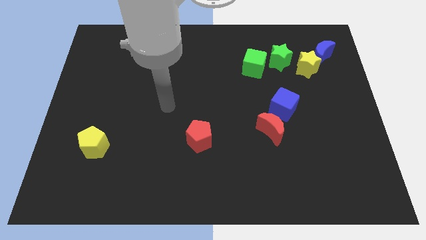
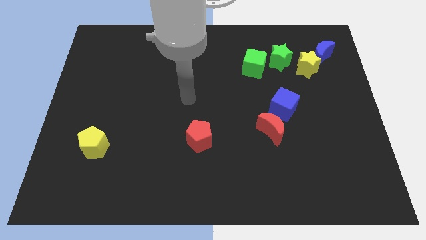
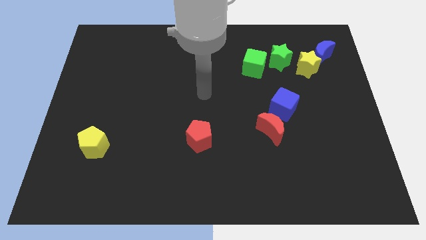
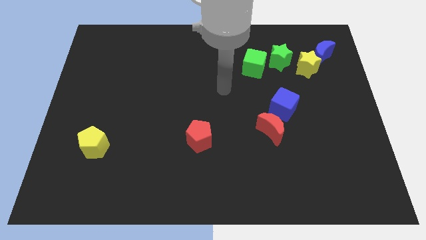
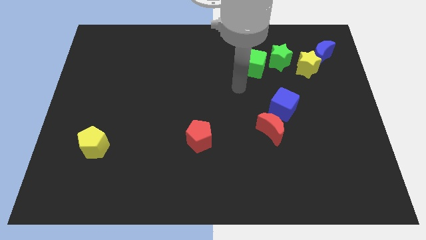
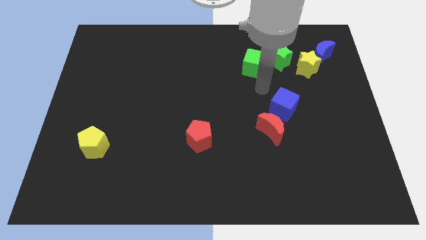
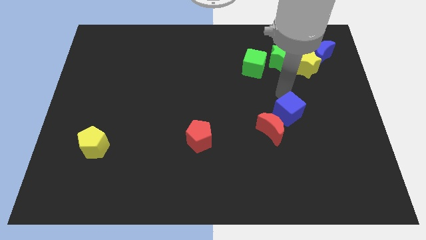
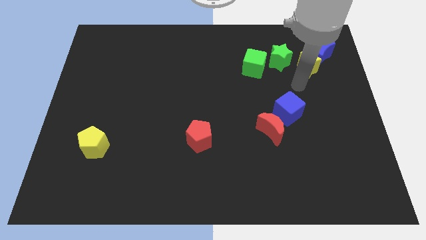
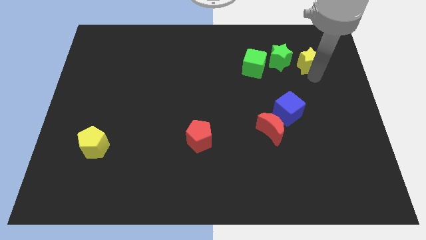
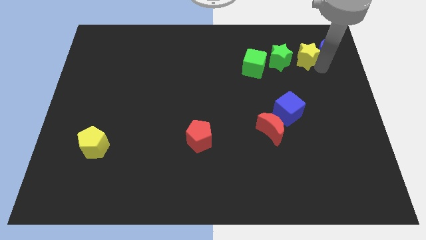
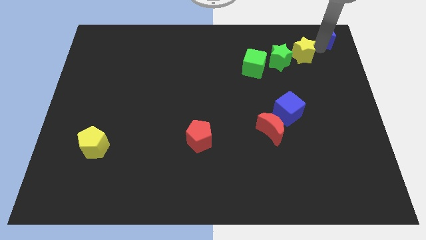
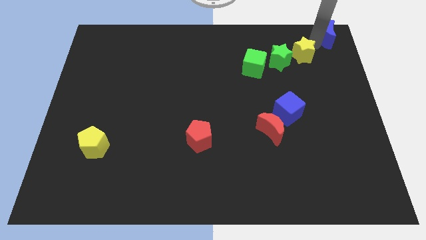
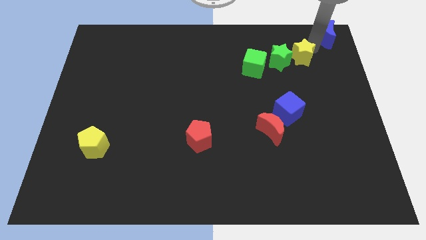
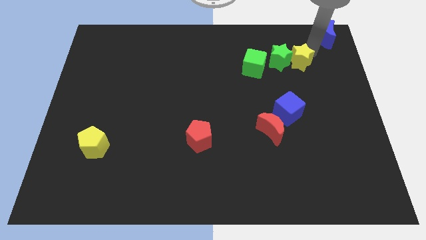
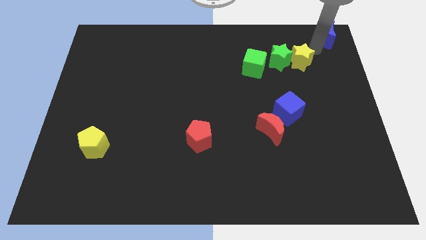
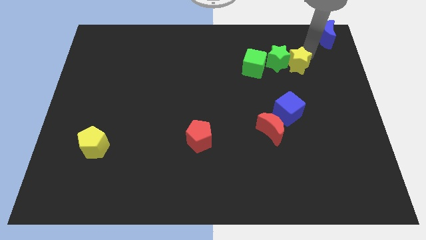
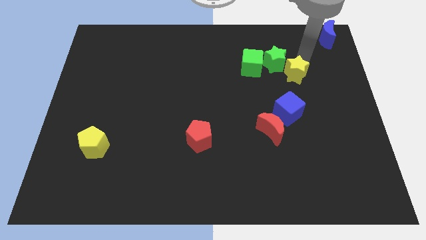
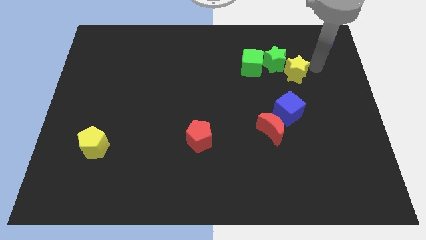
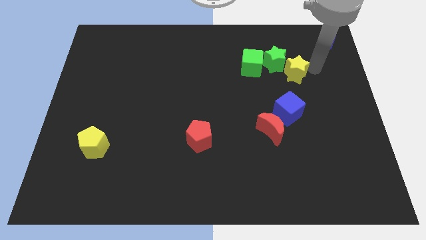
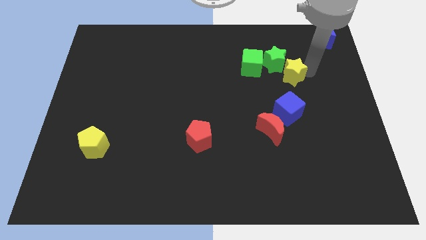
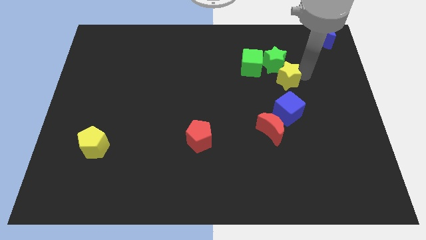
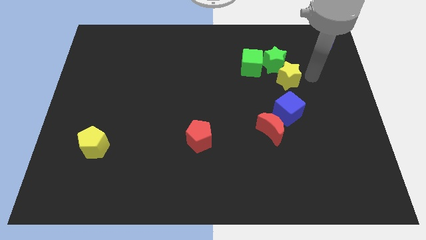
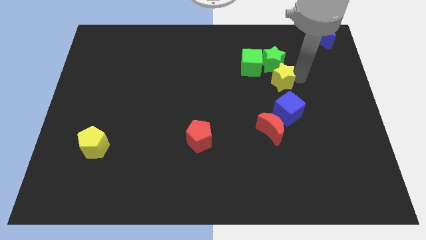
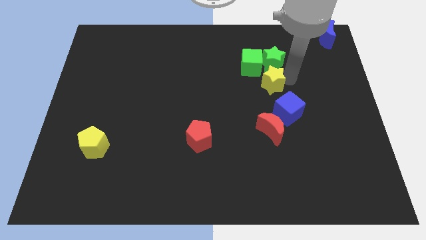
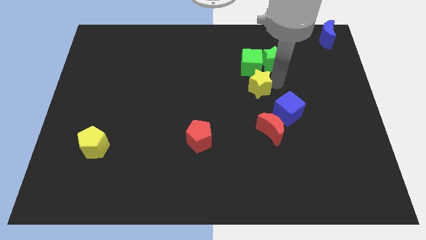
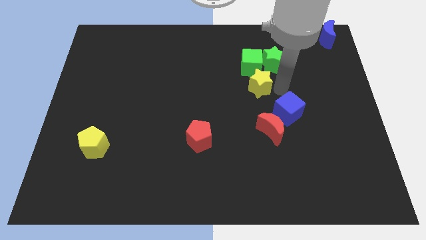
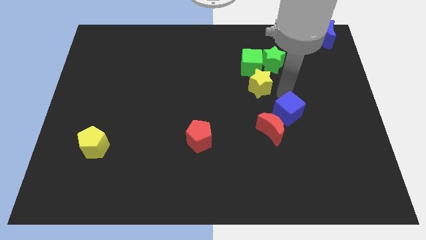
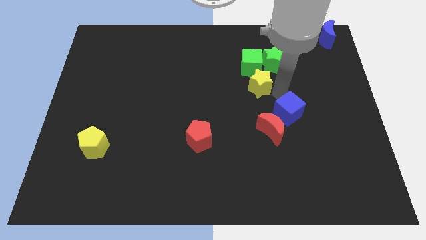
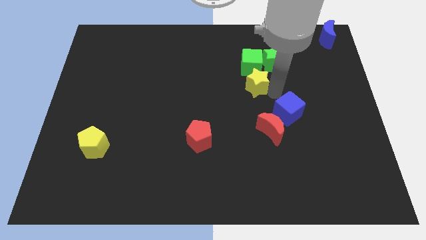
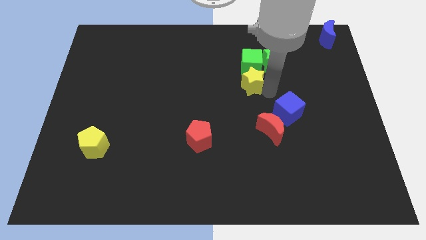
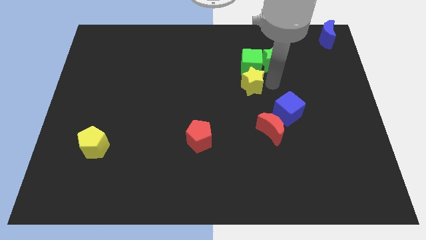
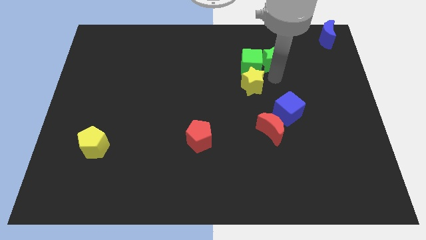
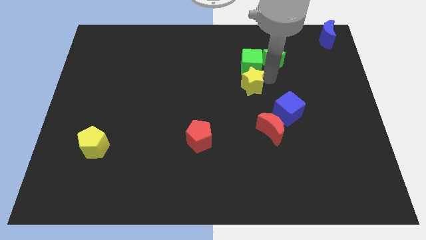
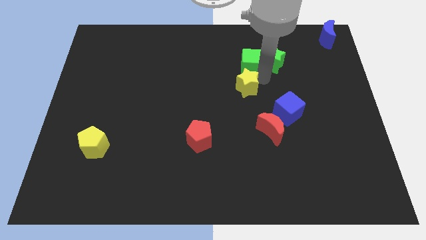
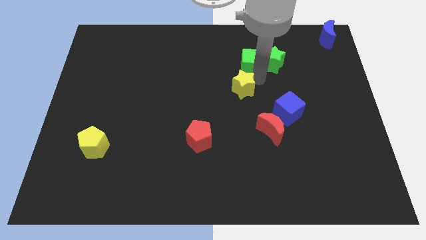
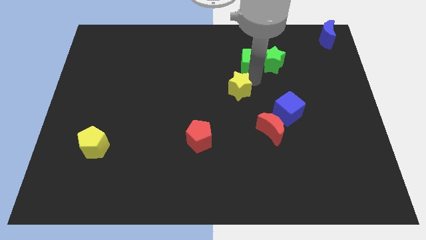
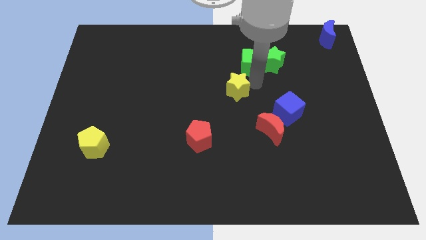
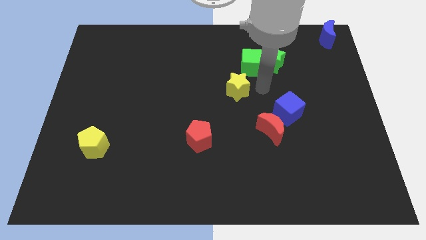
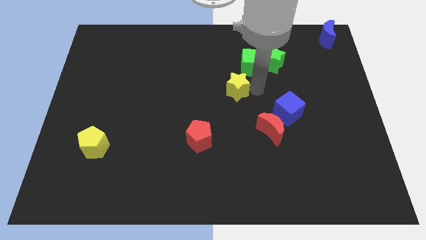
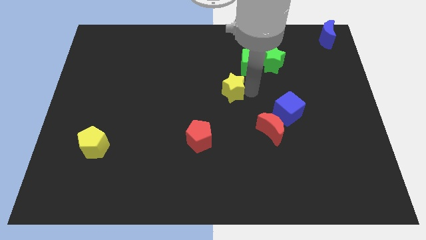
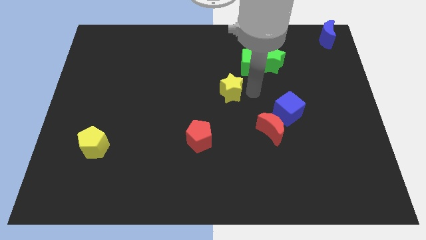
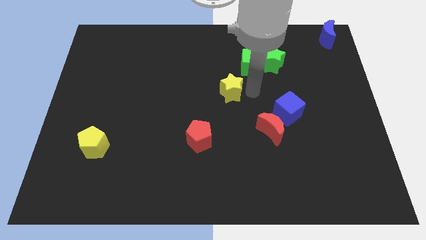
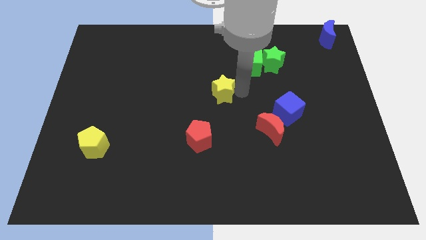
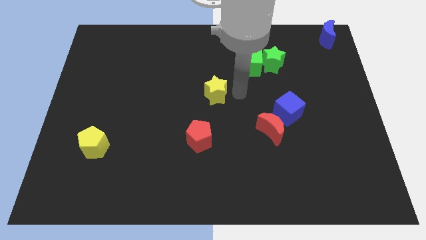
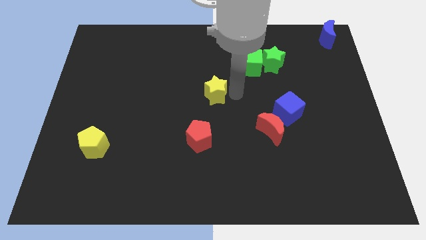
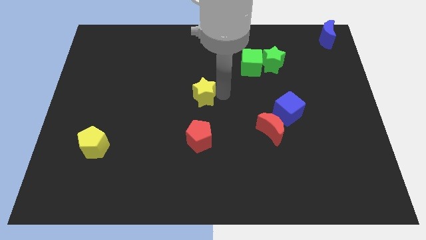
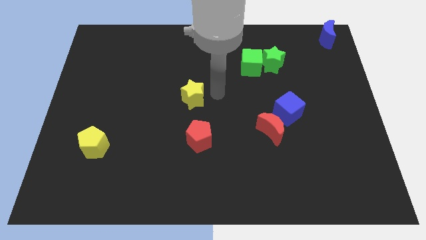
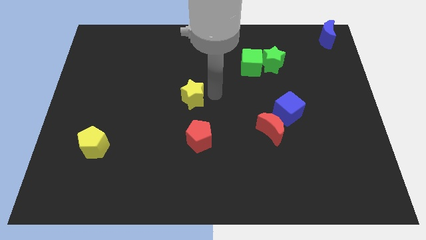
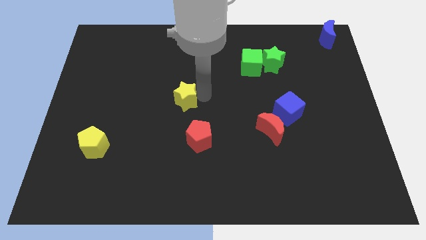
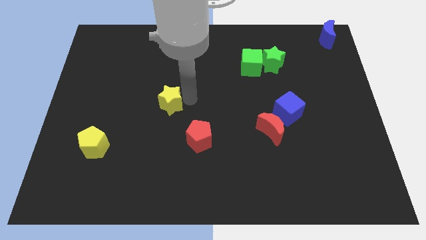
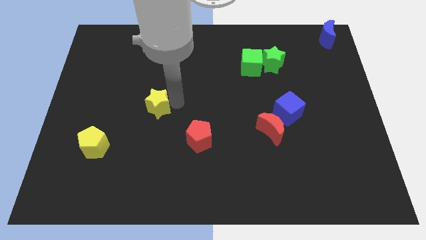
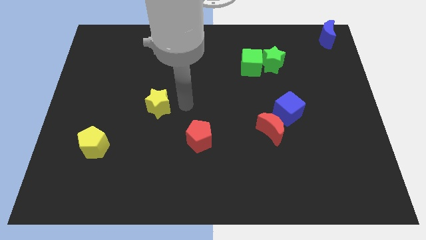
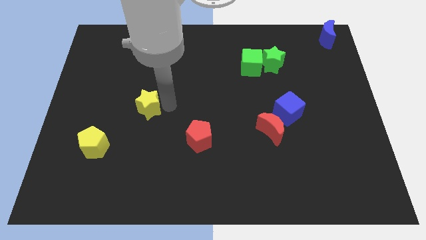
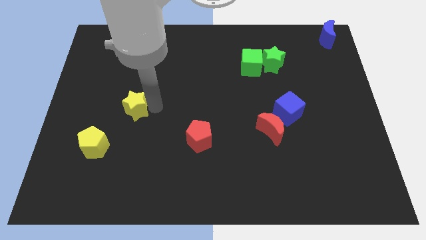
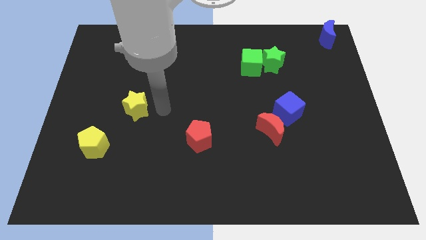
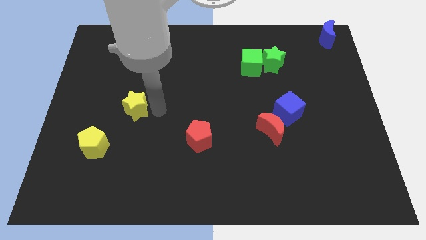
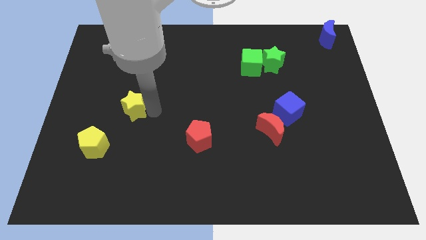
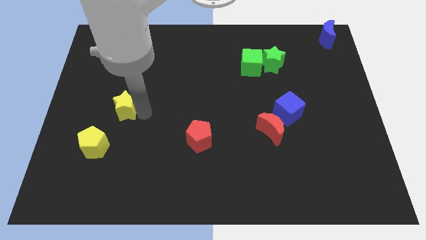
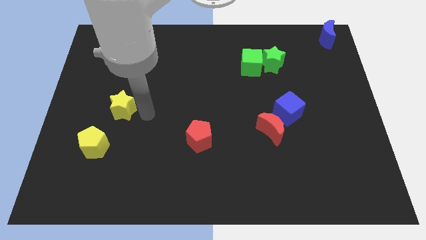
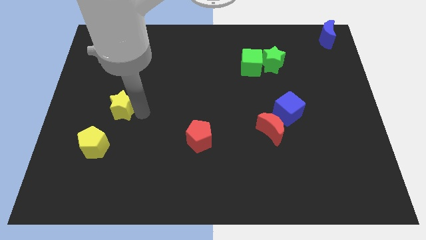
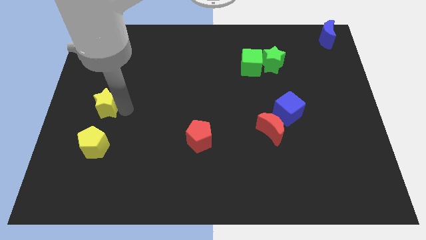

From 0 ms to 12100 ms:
move the yellow star to the left side of the board

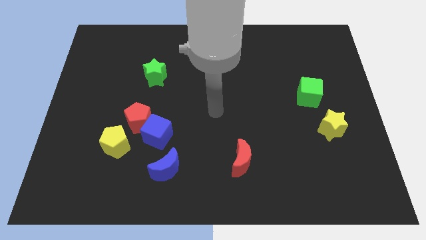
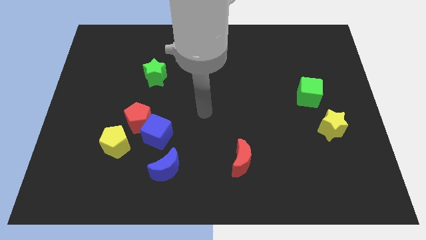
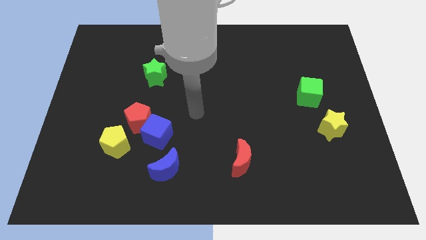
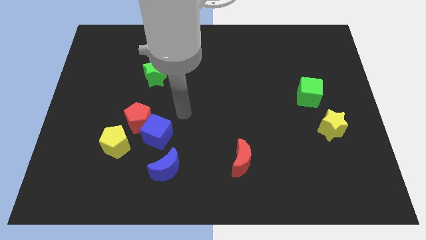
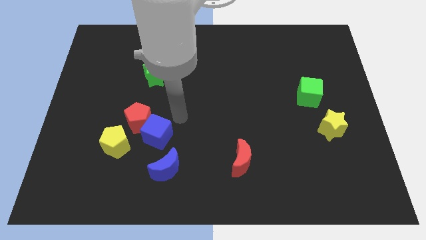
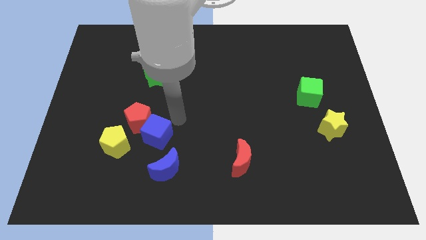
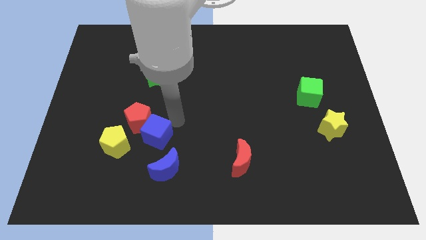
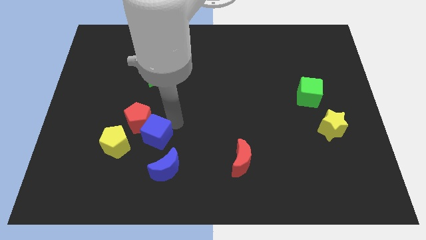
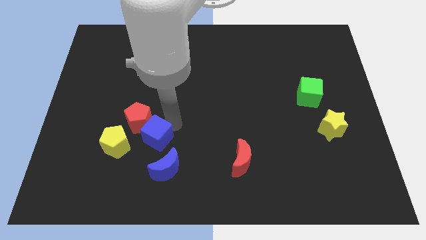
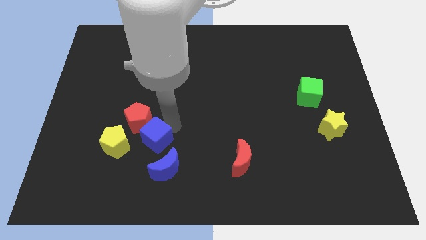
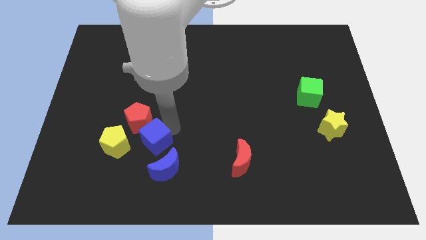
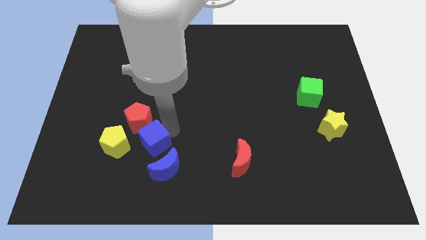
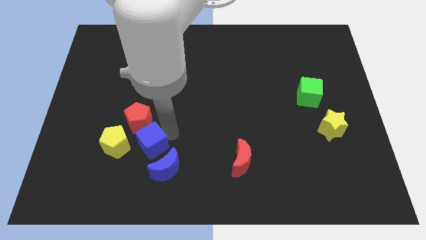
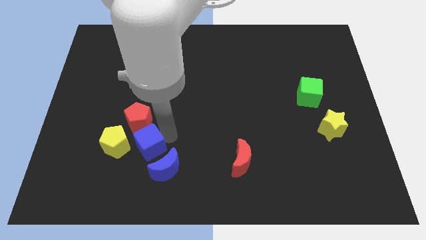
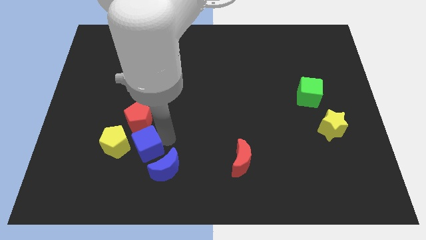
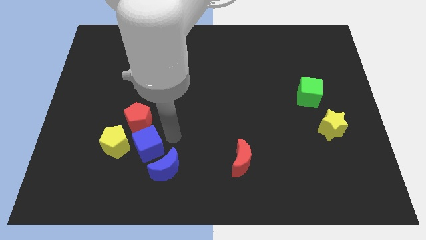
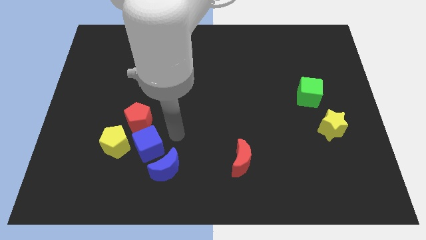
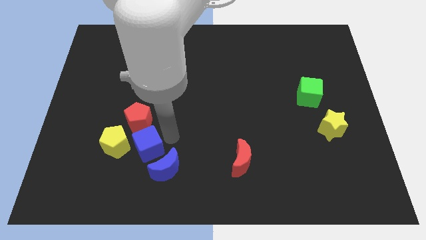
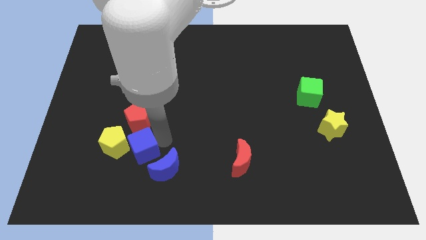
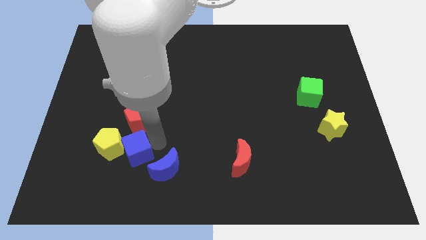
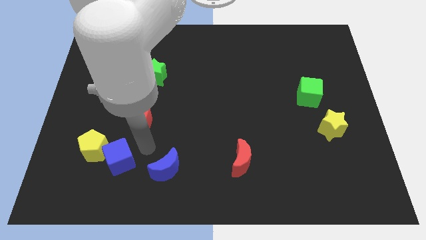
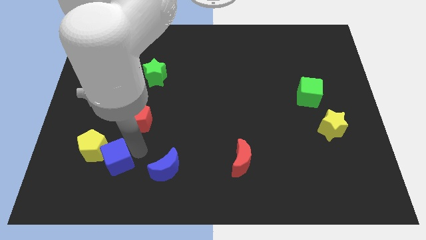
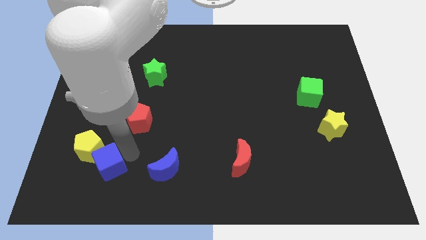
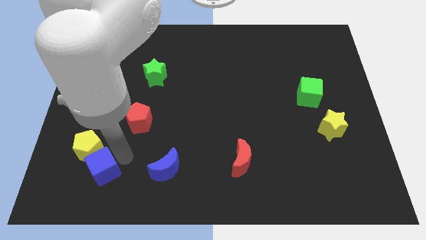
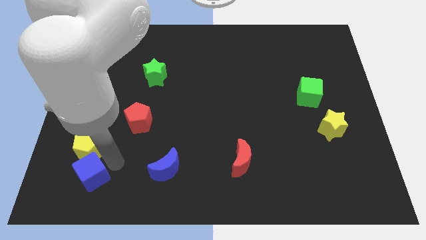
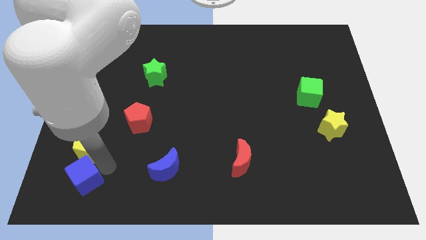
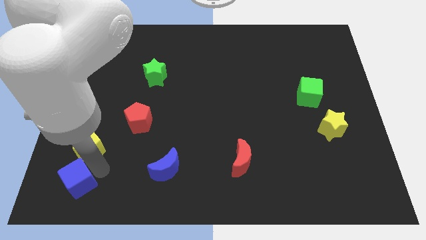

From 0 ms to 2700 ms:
move the blue cube to the bottom left corner
